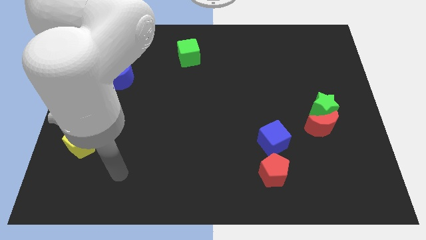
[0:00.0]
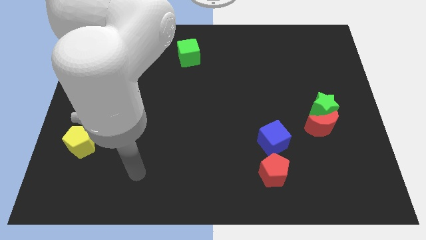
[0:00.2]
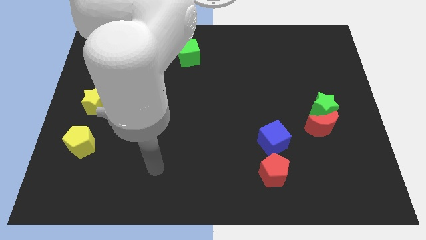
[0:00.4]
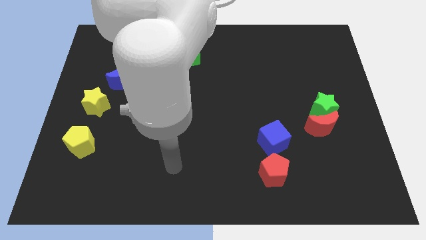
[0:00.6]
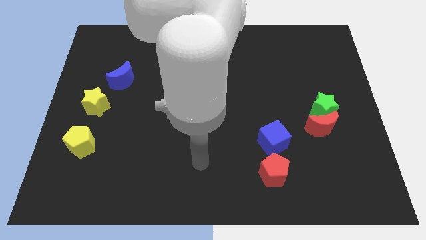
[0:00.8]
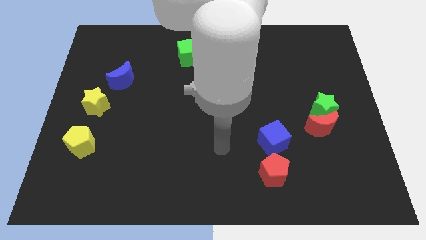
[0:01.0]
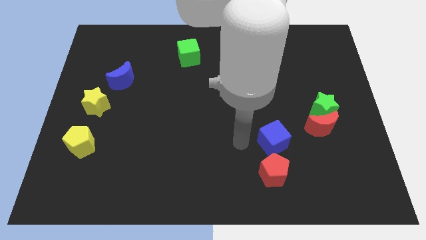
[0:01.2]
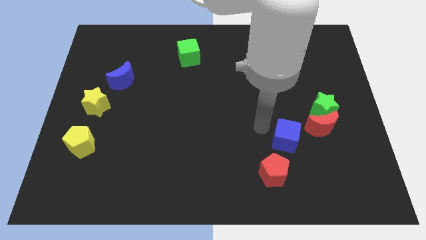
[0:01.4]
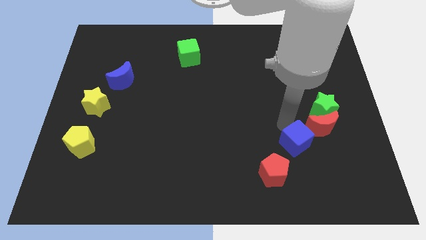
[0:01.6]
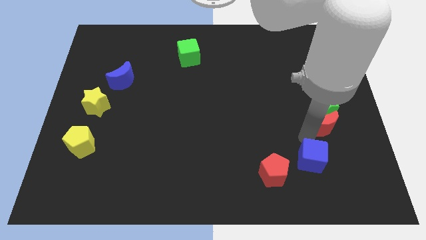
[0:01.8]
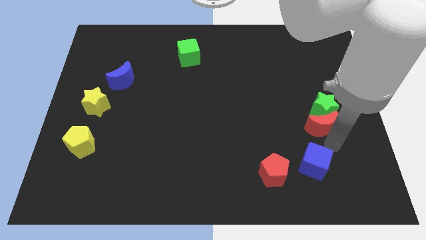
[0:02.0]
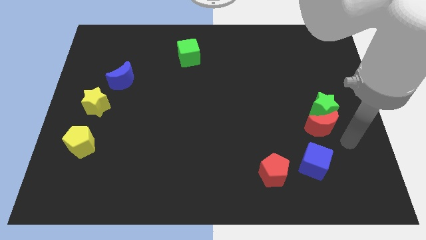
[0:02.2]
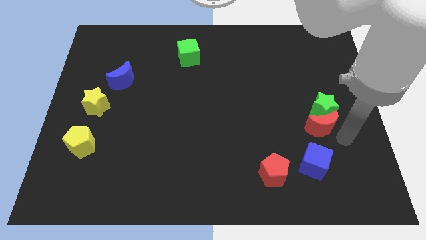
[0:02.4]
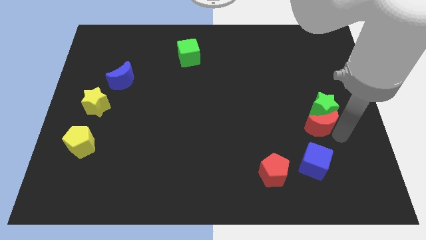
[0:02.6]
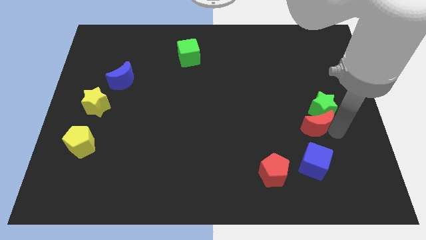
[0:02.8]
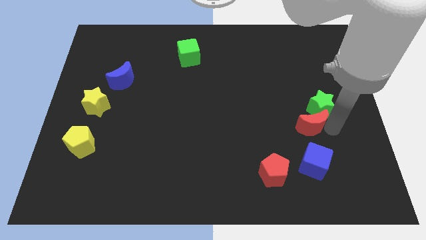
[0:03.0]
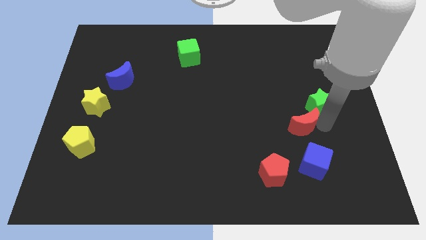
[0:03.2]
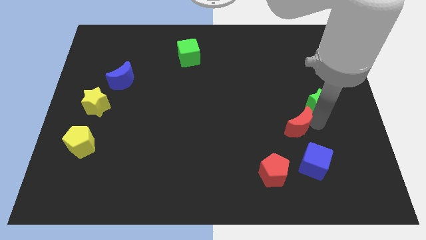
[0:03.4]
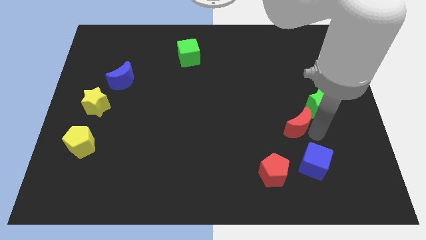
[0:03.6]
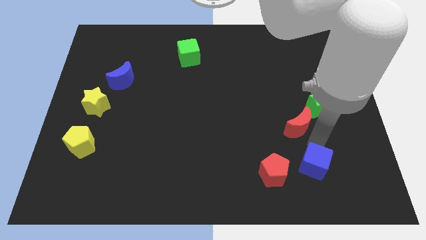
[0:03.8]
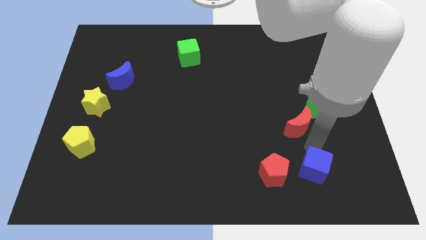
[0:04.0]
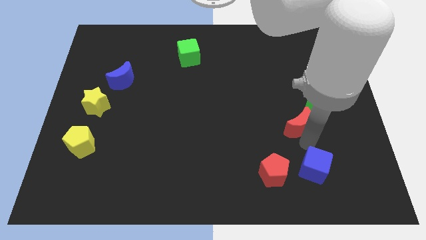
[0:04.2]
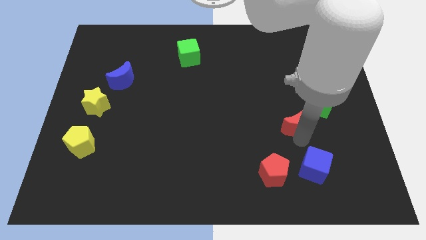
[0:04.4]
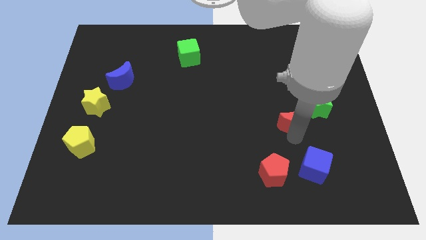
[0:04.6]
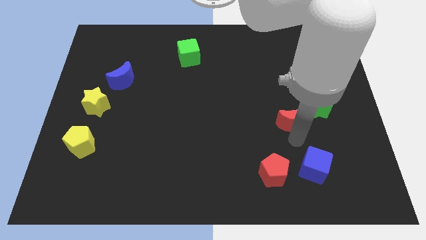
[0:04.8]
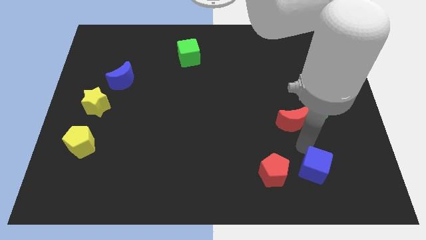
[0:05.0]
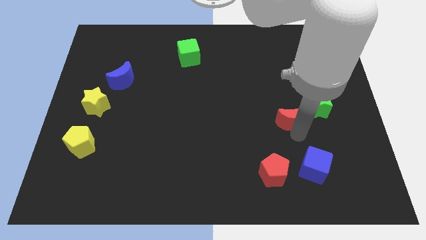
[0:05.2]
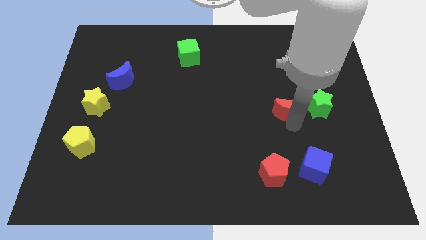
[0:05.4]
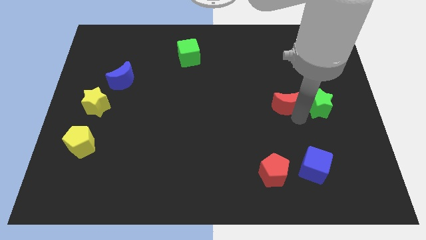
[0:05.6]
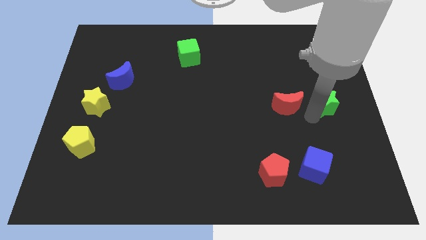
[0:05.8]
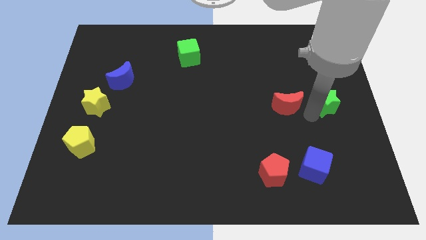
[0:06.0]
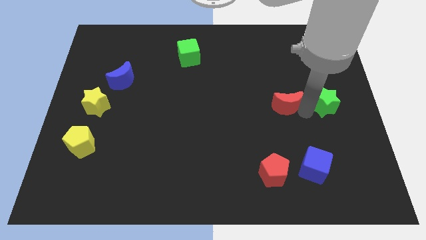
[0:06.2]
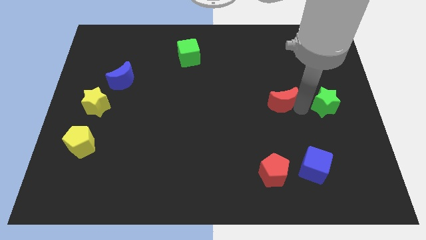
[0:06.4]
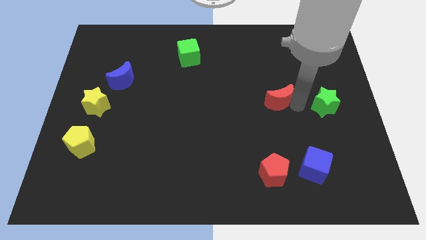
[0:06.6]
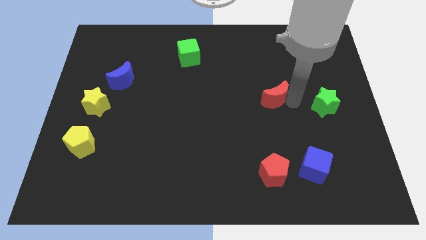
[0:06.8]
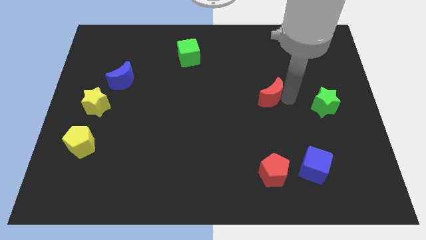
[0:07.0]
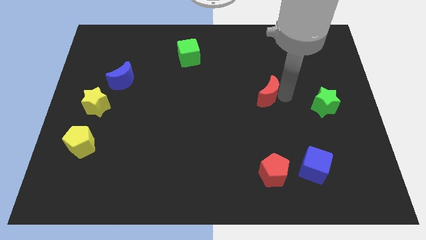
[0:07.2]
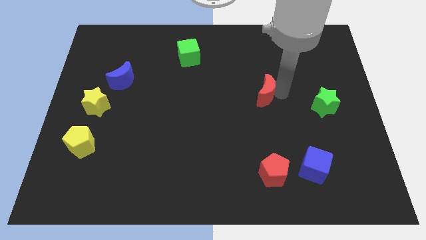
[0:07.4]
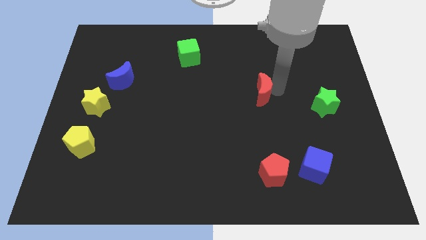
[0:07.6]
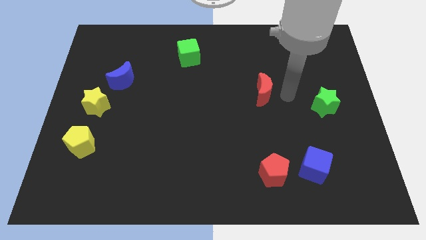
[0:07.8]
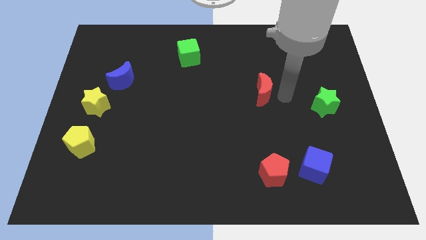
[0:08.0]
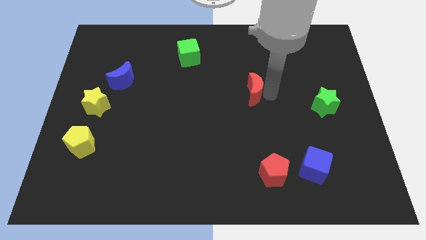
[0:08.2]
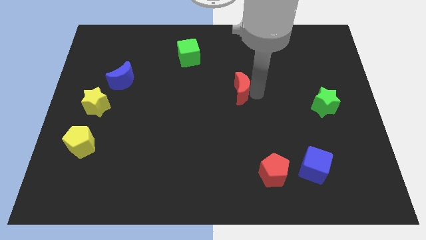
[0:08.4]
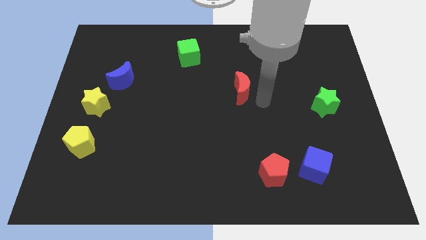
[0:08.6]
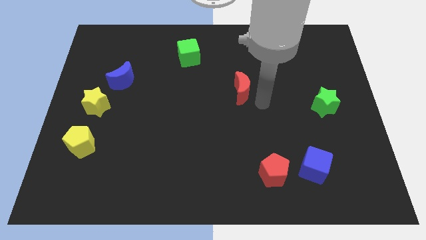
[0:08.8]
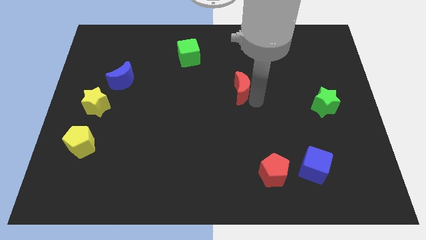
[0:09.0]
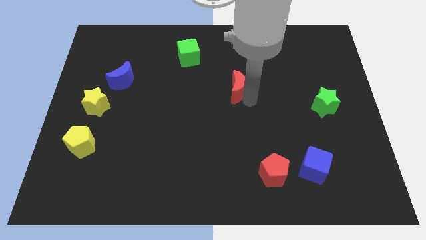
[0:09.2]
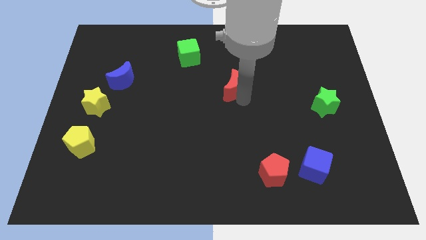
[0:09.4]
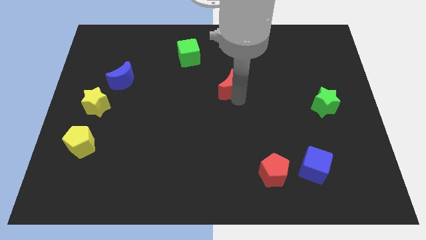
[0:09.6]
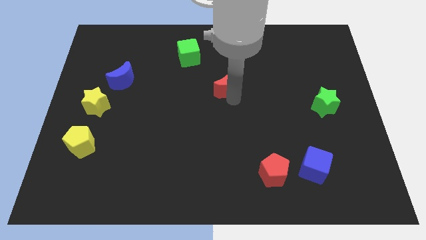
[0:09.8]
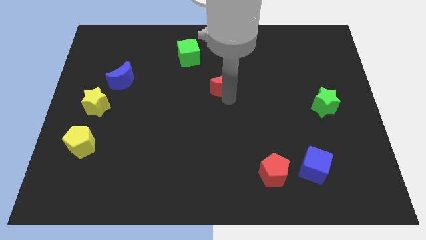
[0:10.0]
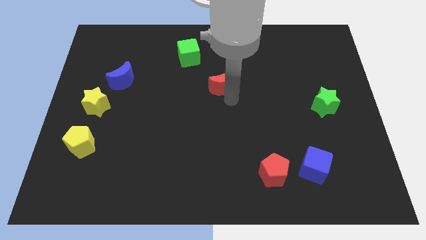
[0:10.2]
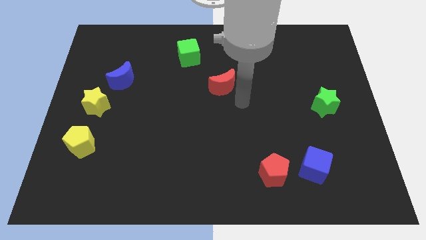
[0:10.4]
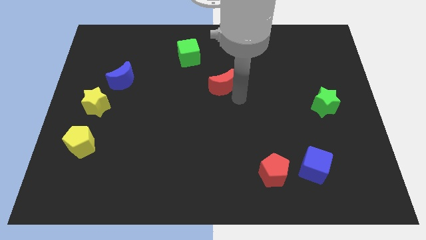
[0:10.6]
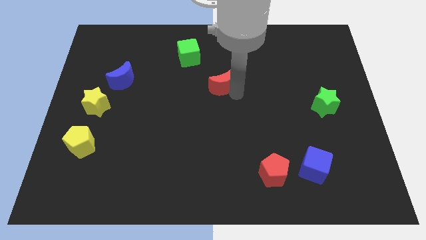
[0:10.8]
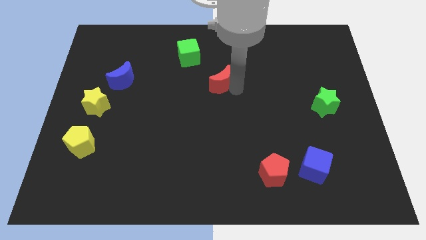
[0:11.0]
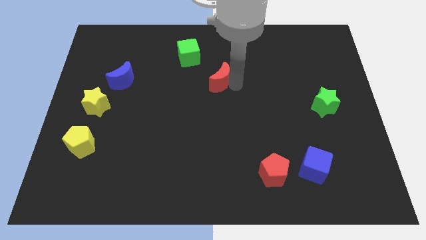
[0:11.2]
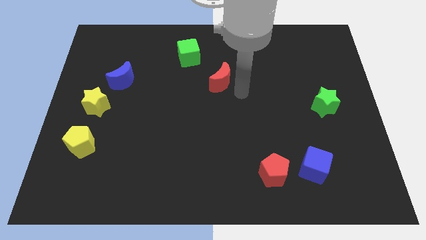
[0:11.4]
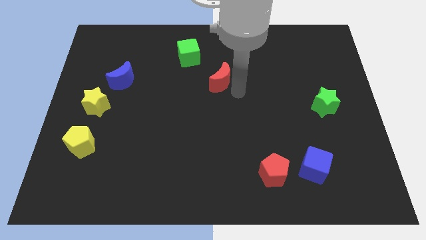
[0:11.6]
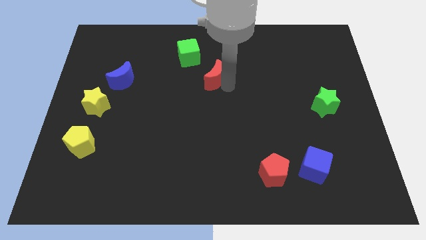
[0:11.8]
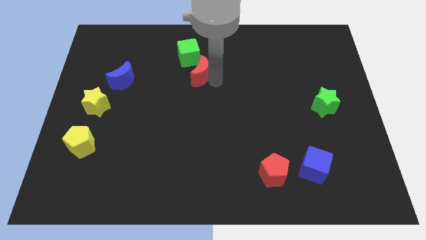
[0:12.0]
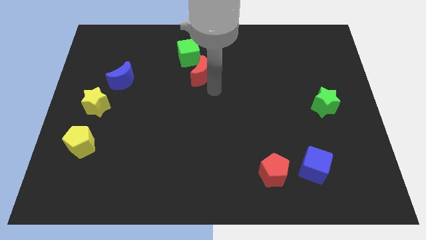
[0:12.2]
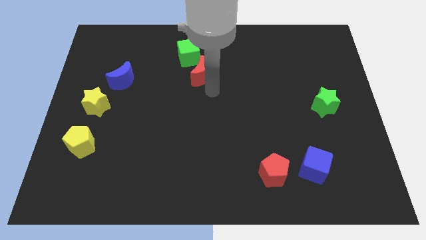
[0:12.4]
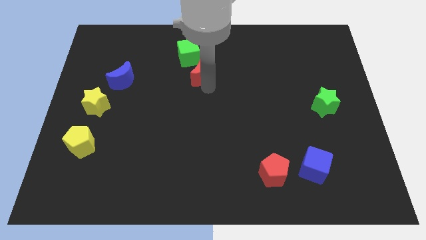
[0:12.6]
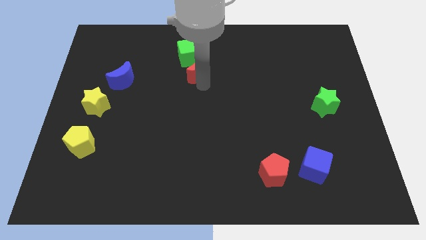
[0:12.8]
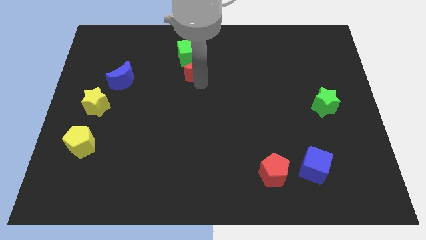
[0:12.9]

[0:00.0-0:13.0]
put the red moon close to the green cube

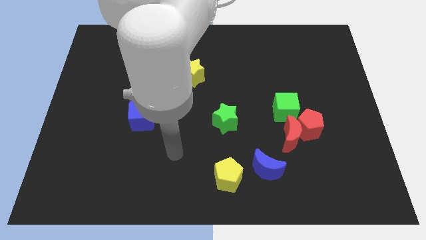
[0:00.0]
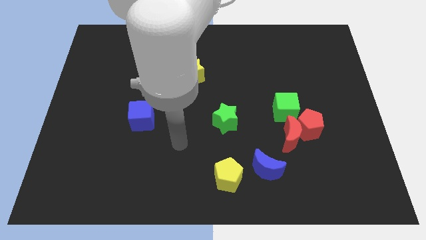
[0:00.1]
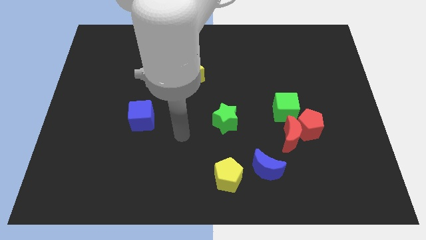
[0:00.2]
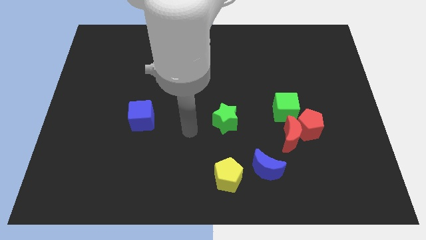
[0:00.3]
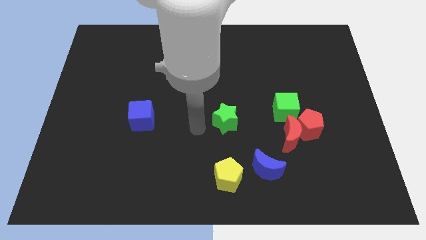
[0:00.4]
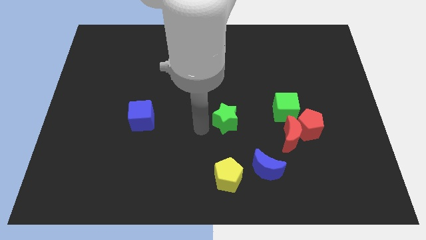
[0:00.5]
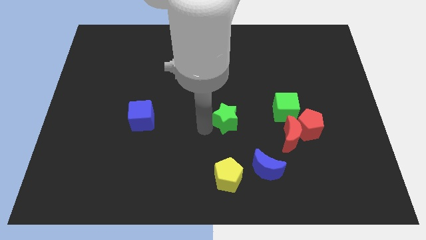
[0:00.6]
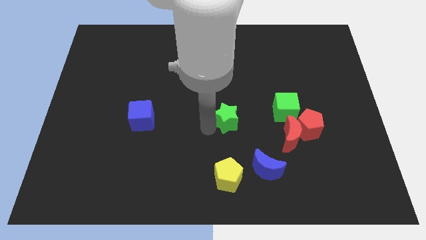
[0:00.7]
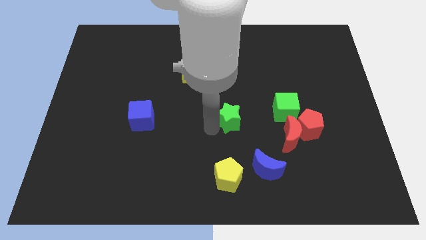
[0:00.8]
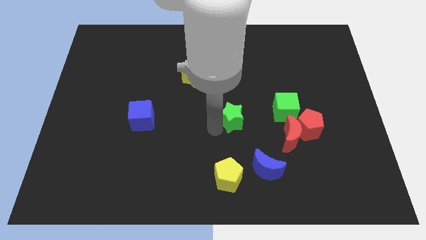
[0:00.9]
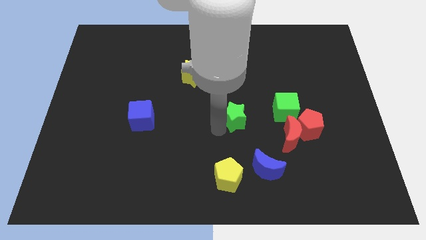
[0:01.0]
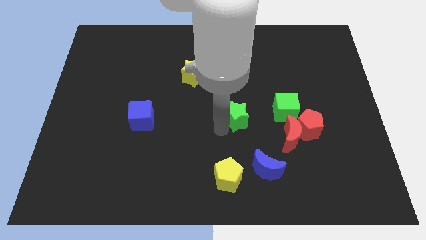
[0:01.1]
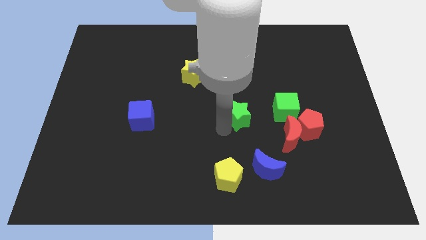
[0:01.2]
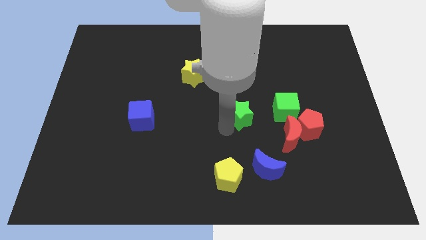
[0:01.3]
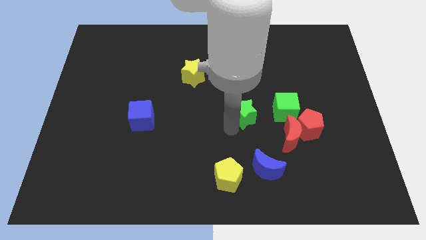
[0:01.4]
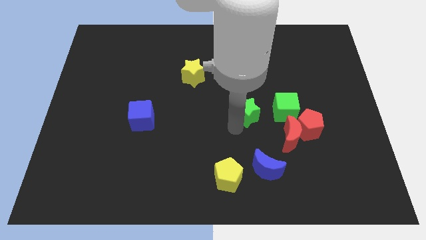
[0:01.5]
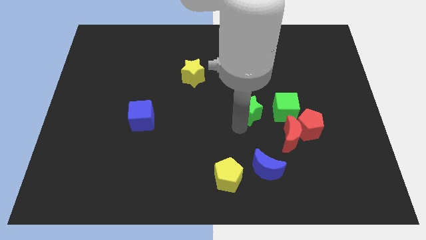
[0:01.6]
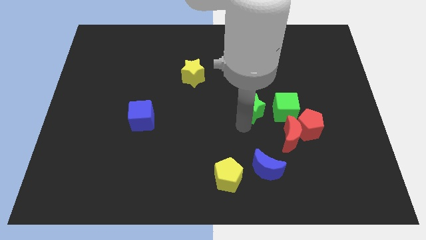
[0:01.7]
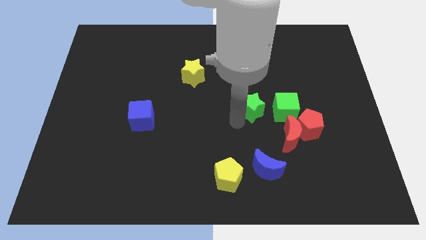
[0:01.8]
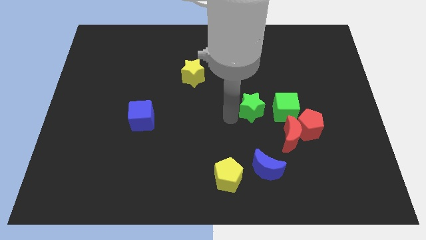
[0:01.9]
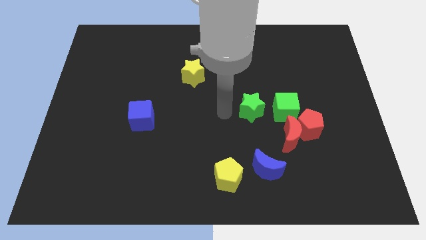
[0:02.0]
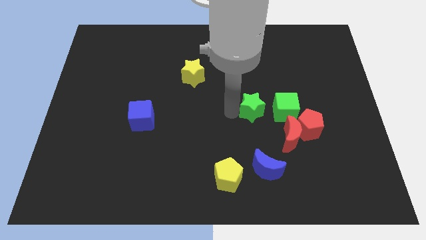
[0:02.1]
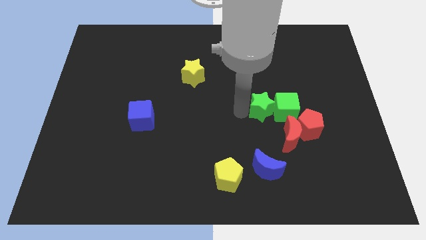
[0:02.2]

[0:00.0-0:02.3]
move the green star close to the green cube
